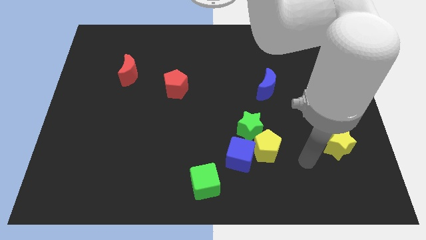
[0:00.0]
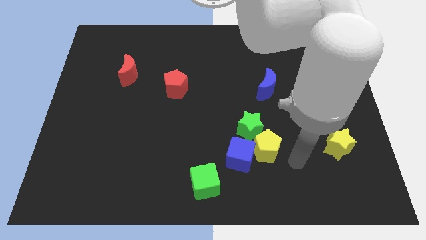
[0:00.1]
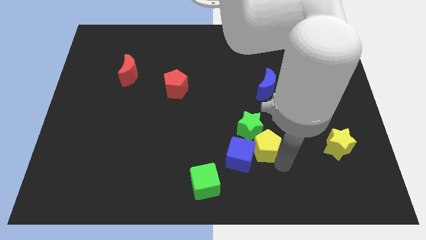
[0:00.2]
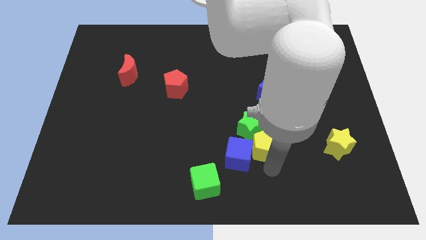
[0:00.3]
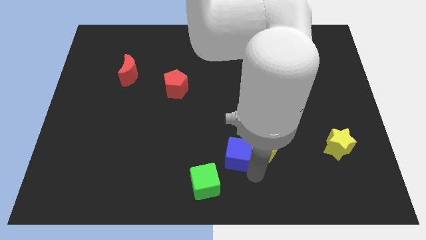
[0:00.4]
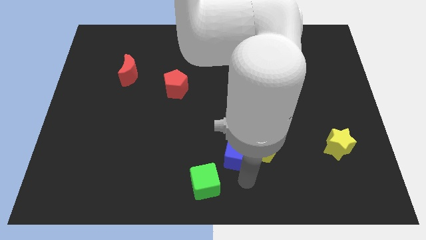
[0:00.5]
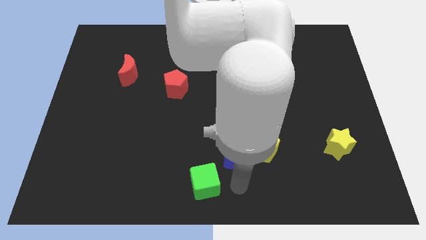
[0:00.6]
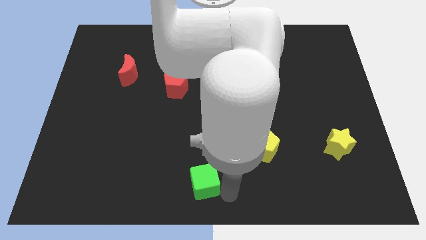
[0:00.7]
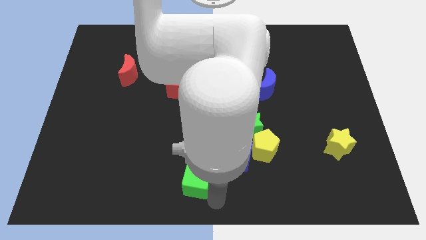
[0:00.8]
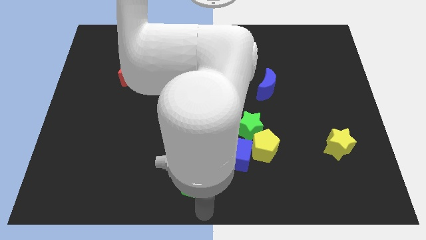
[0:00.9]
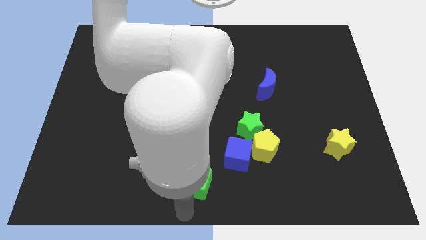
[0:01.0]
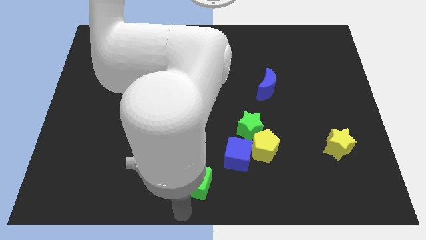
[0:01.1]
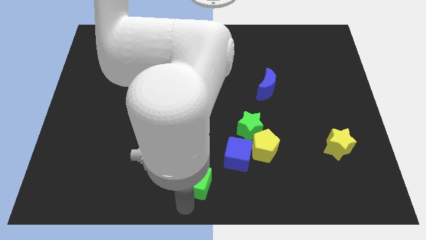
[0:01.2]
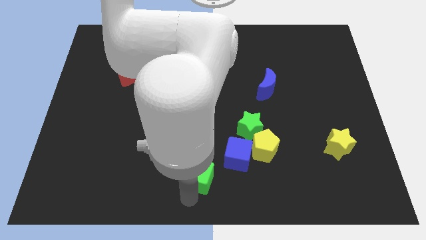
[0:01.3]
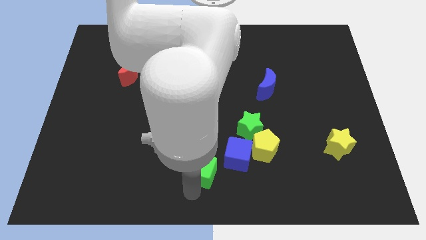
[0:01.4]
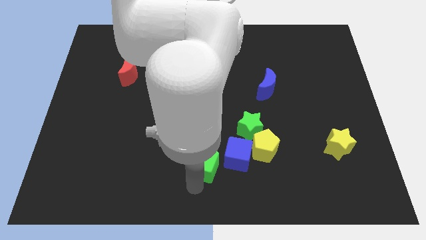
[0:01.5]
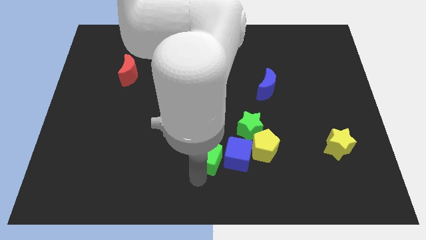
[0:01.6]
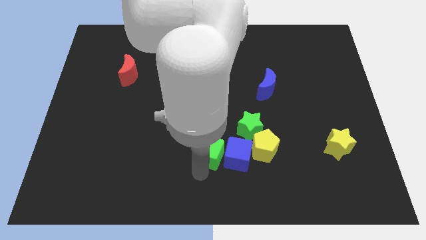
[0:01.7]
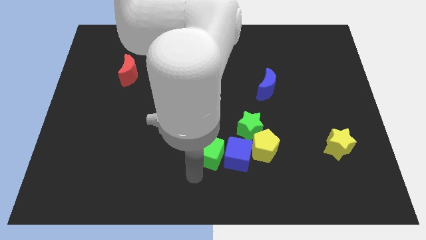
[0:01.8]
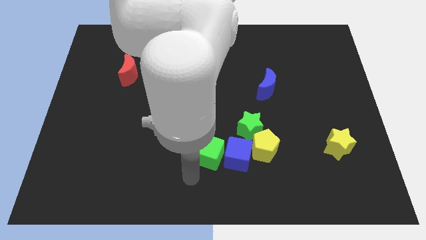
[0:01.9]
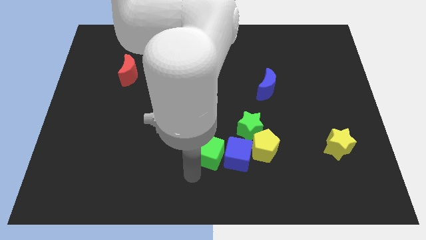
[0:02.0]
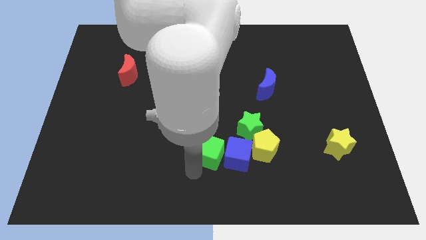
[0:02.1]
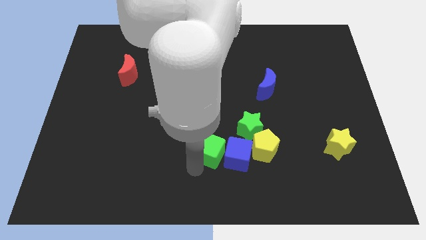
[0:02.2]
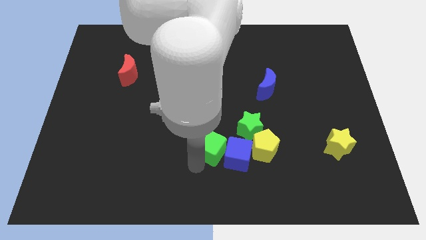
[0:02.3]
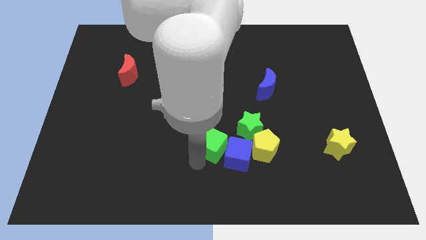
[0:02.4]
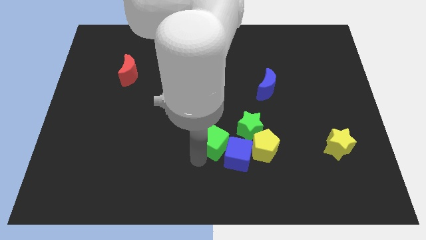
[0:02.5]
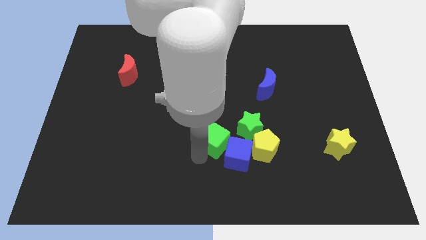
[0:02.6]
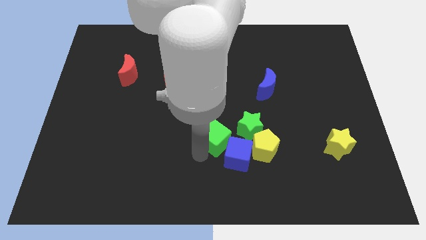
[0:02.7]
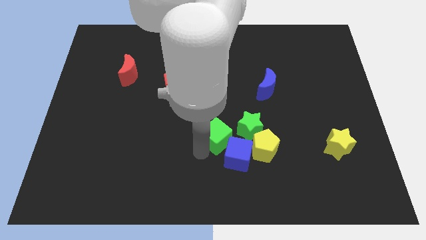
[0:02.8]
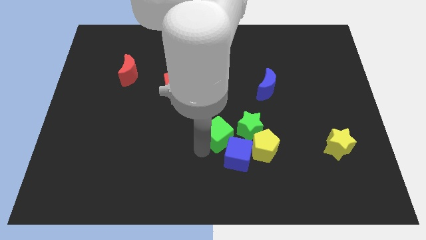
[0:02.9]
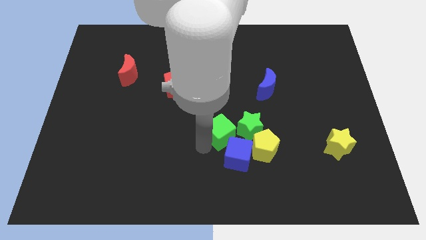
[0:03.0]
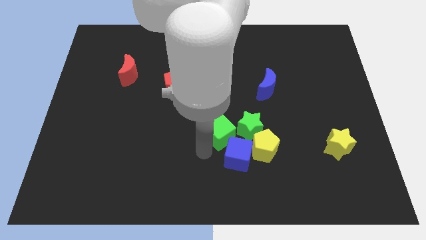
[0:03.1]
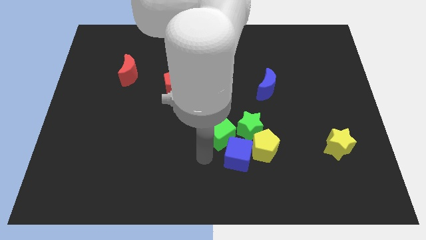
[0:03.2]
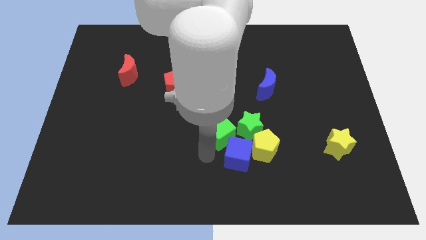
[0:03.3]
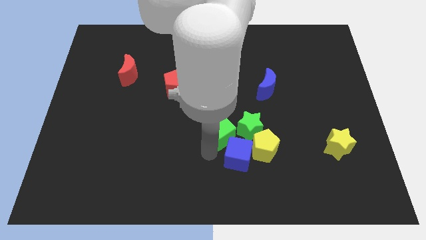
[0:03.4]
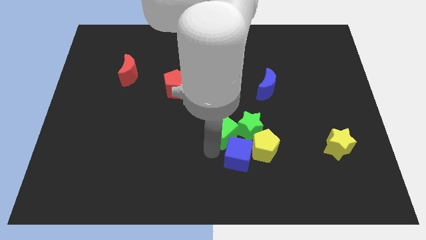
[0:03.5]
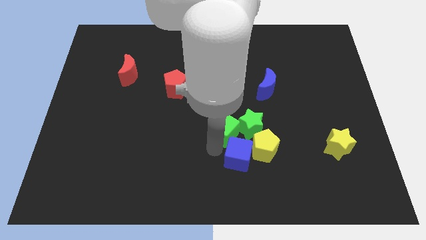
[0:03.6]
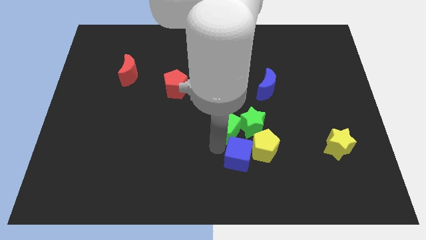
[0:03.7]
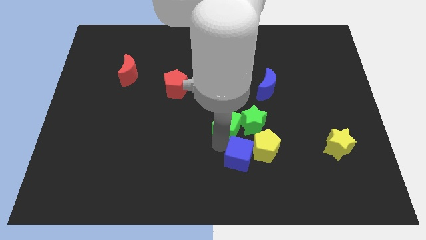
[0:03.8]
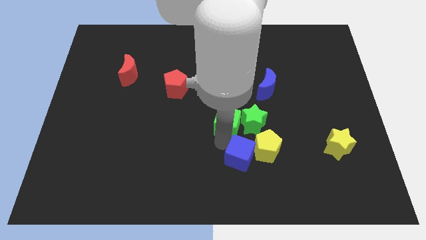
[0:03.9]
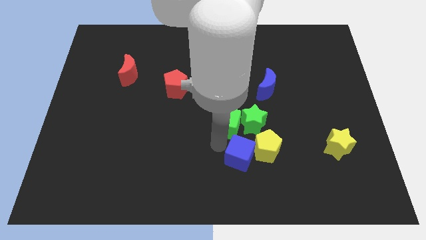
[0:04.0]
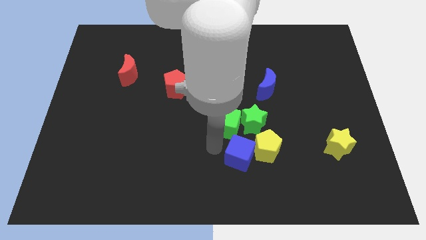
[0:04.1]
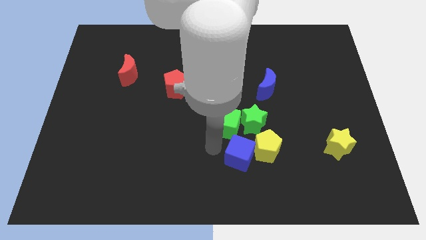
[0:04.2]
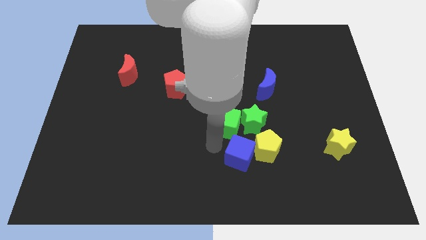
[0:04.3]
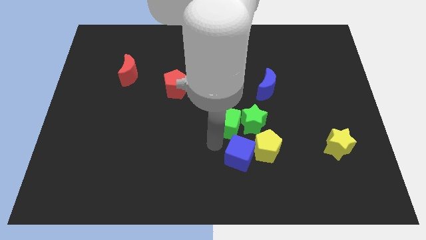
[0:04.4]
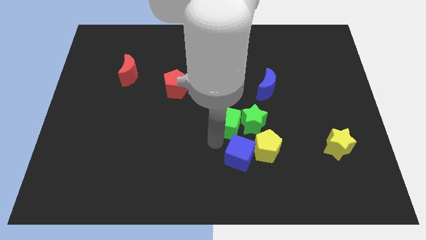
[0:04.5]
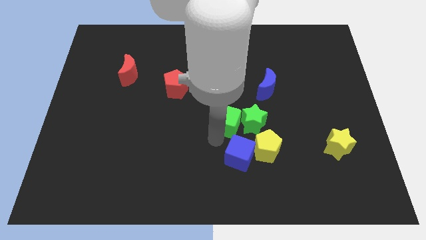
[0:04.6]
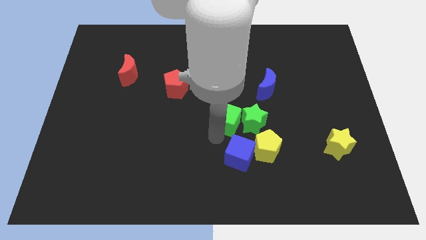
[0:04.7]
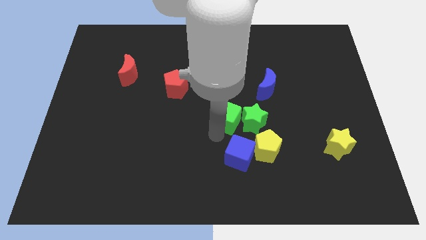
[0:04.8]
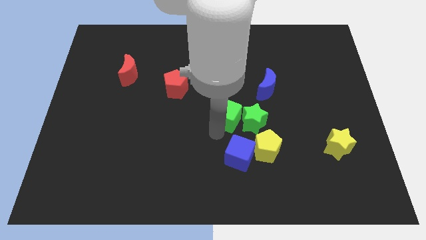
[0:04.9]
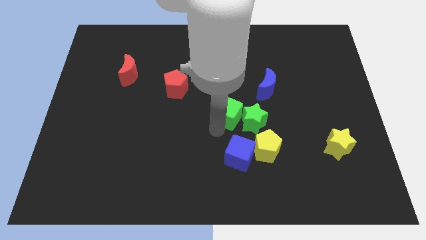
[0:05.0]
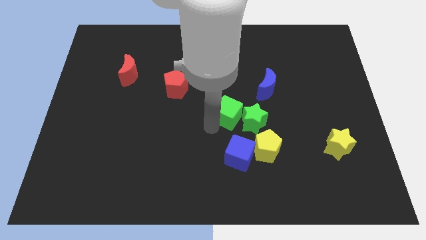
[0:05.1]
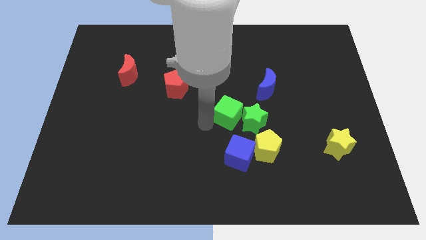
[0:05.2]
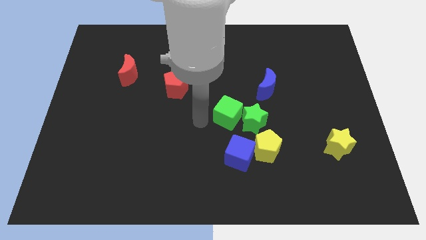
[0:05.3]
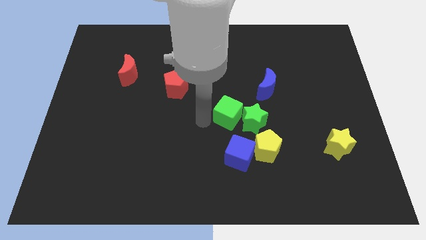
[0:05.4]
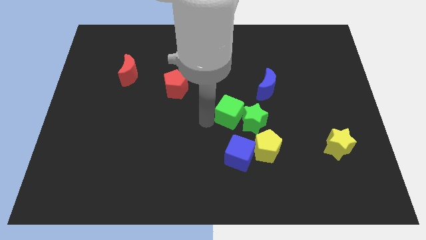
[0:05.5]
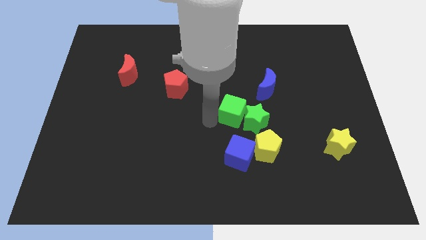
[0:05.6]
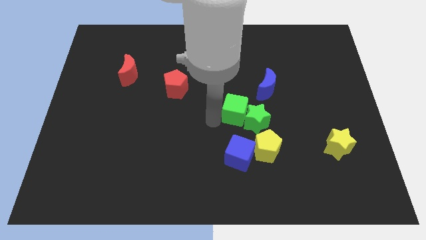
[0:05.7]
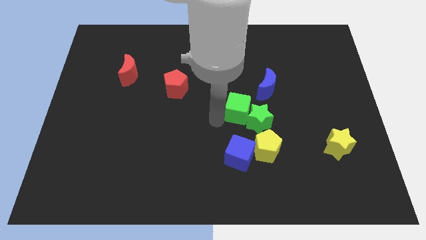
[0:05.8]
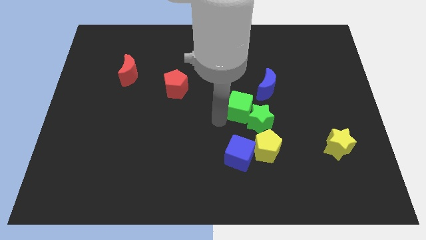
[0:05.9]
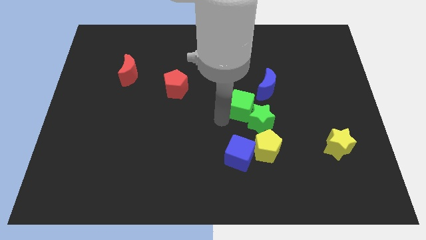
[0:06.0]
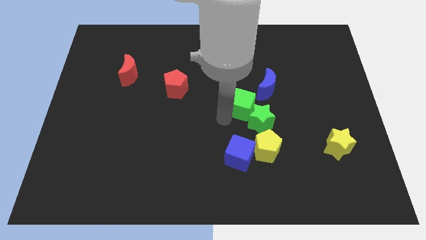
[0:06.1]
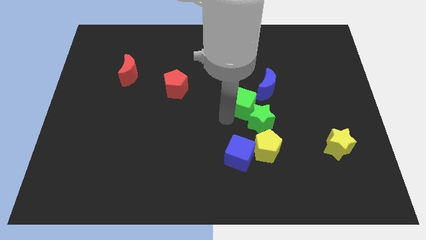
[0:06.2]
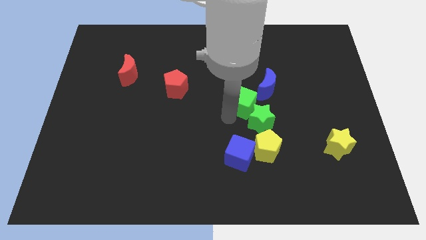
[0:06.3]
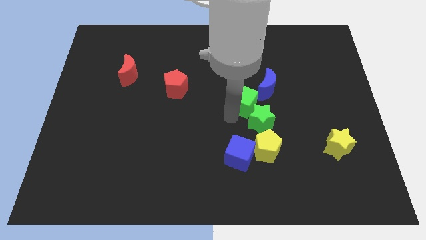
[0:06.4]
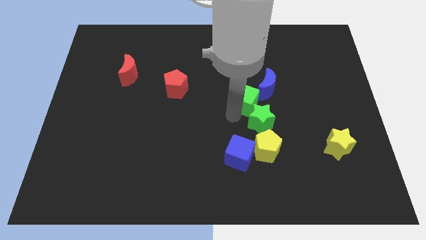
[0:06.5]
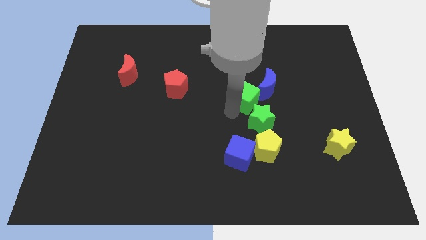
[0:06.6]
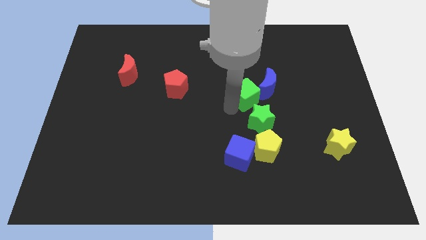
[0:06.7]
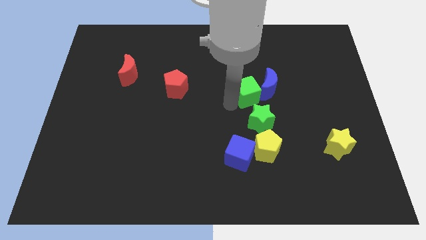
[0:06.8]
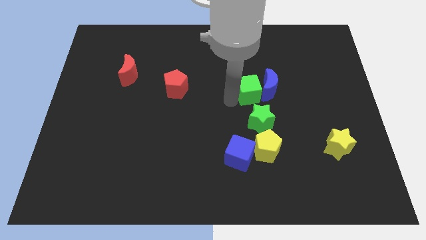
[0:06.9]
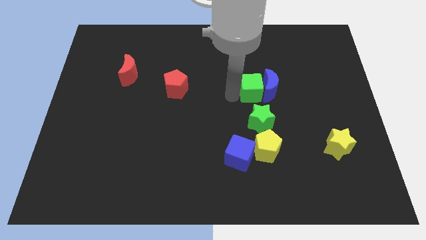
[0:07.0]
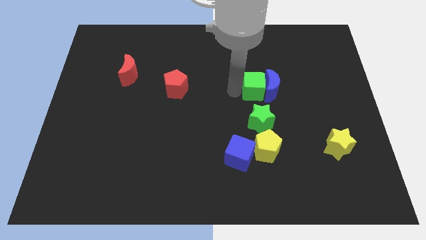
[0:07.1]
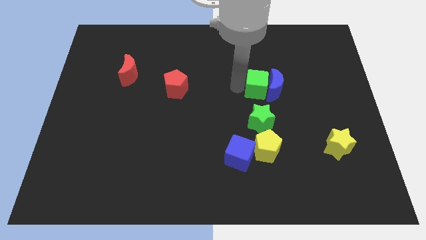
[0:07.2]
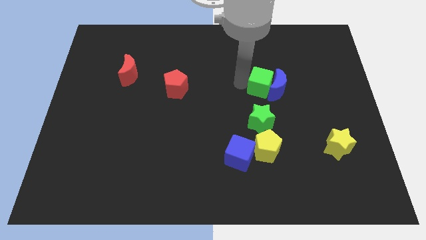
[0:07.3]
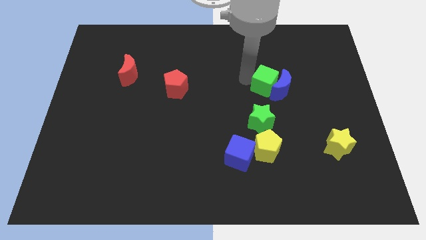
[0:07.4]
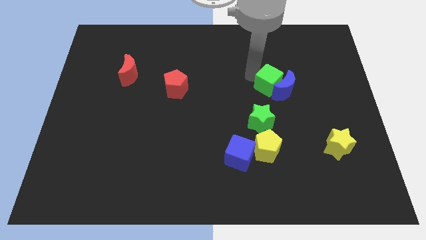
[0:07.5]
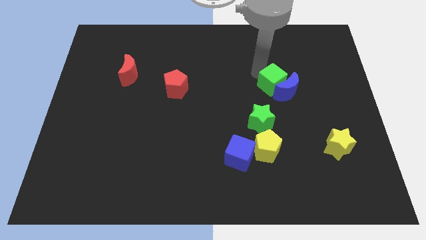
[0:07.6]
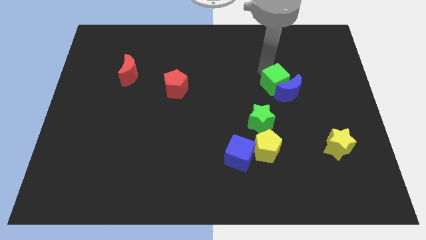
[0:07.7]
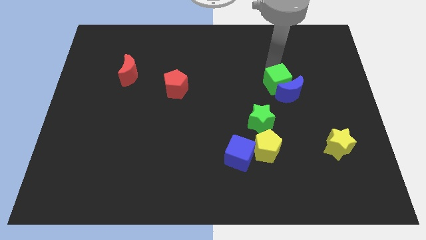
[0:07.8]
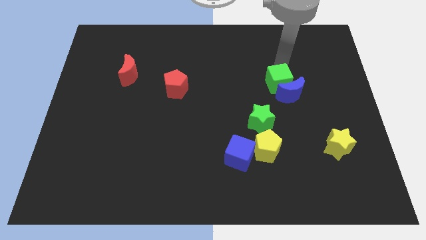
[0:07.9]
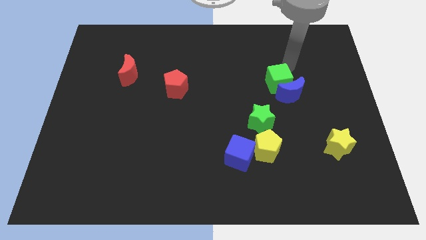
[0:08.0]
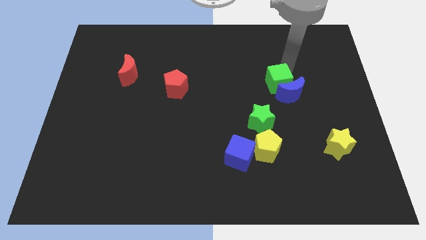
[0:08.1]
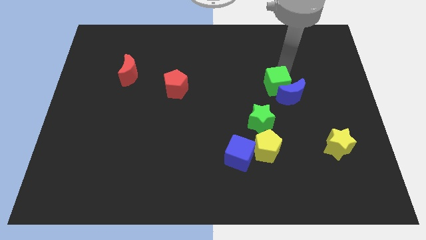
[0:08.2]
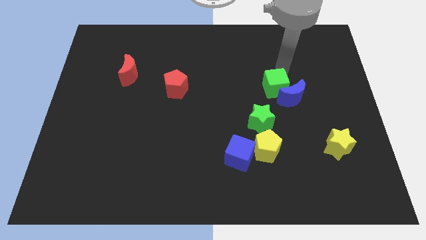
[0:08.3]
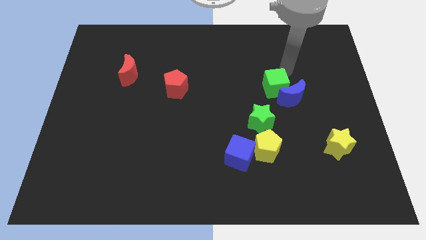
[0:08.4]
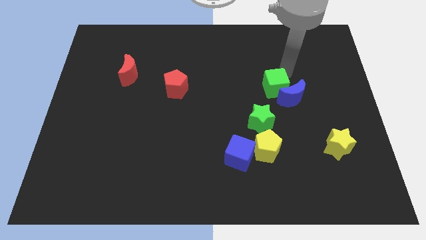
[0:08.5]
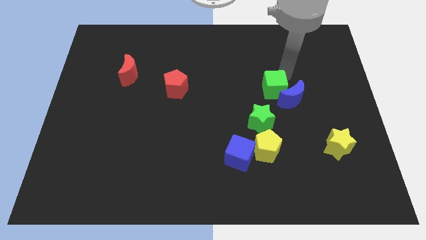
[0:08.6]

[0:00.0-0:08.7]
push the green cube to the top right of the green star
